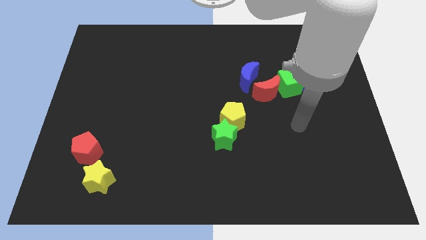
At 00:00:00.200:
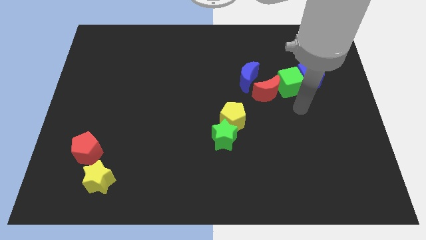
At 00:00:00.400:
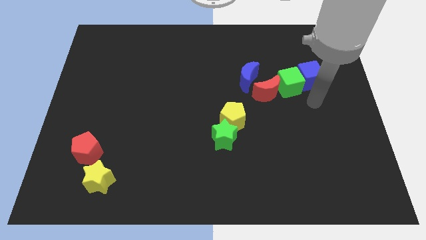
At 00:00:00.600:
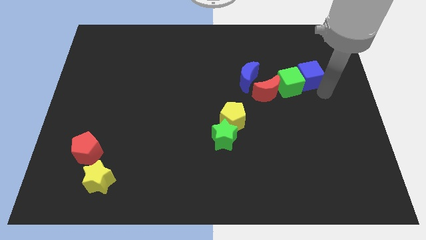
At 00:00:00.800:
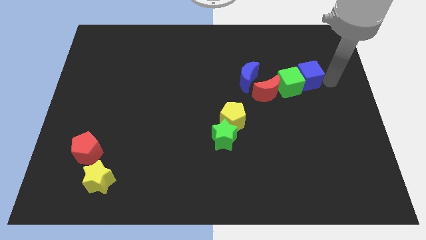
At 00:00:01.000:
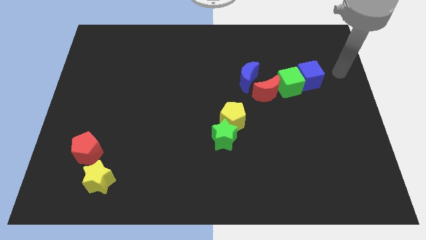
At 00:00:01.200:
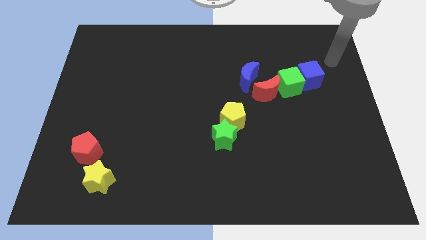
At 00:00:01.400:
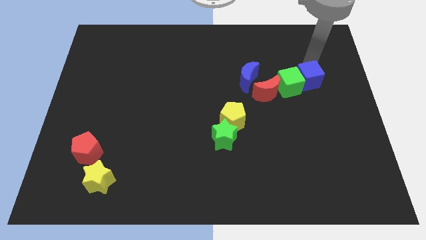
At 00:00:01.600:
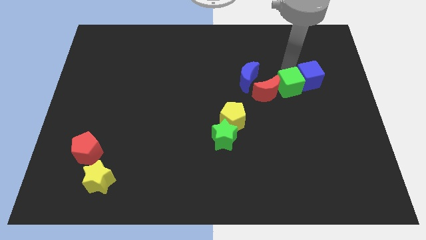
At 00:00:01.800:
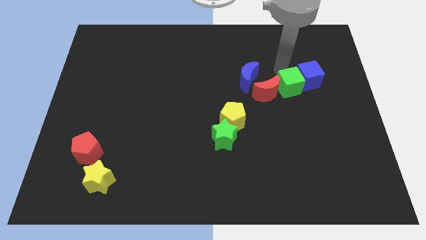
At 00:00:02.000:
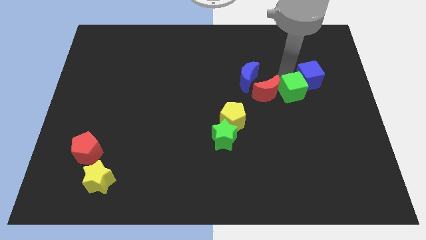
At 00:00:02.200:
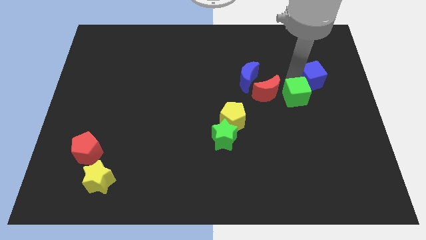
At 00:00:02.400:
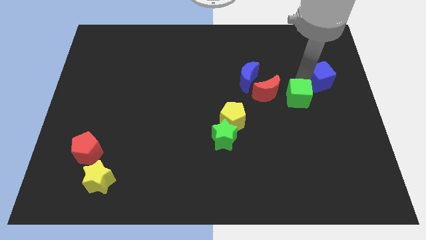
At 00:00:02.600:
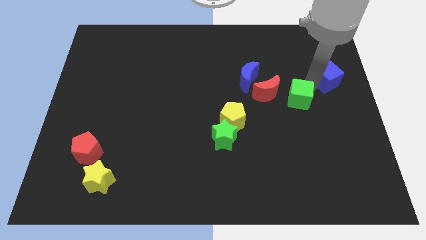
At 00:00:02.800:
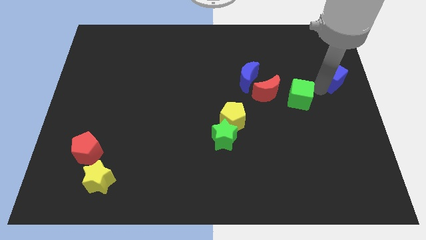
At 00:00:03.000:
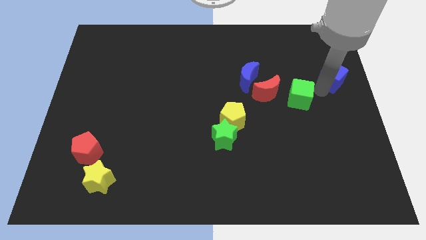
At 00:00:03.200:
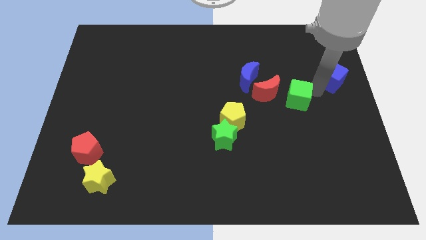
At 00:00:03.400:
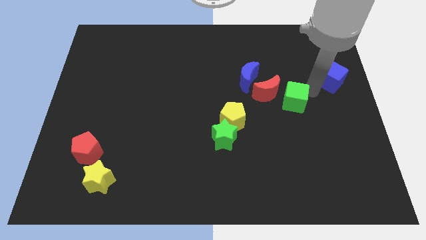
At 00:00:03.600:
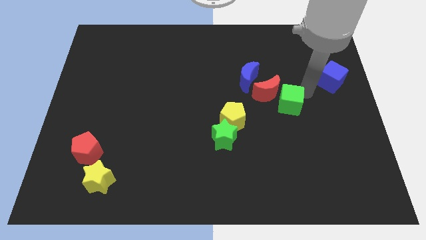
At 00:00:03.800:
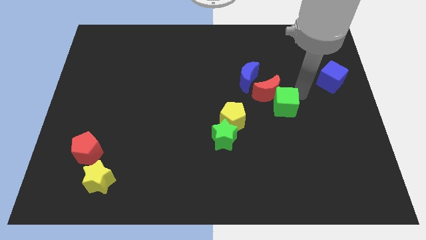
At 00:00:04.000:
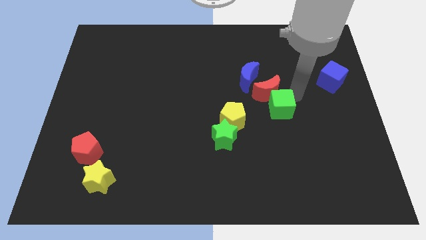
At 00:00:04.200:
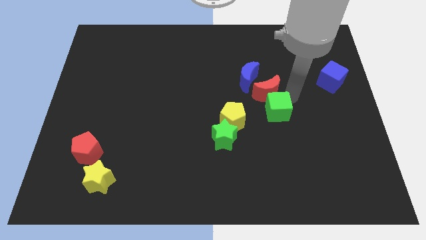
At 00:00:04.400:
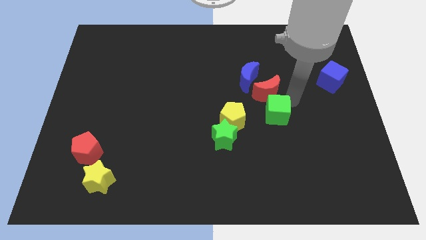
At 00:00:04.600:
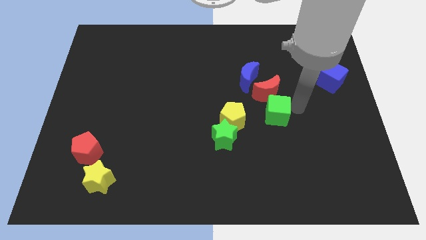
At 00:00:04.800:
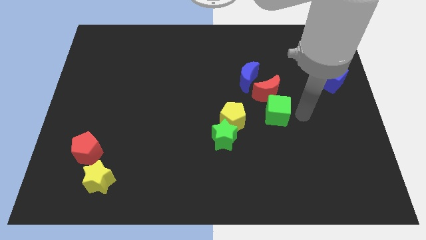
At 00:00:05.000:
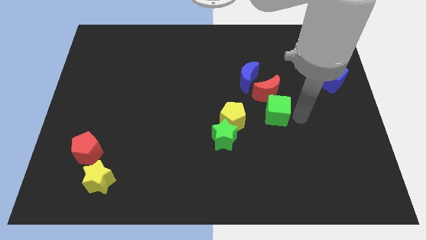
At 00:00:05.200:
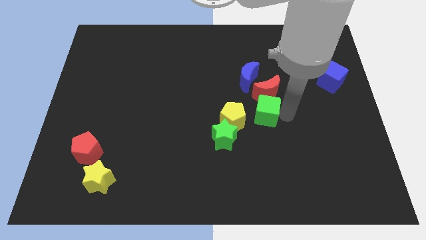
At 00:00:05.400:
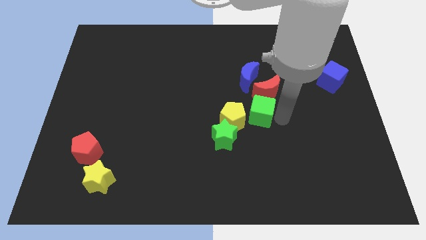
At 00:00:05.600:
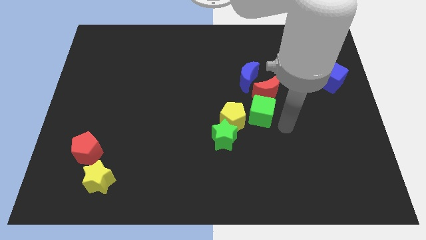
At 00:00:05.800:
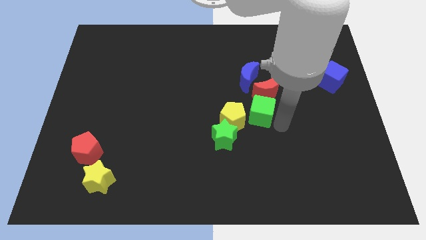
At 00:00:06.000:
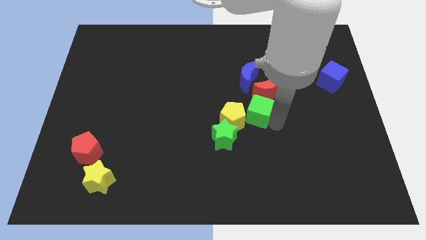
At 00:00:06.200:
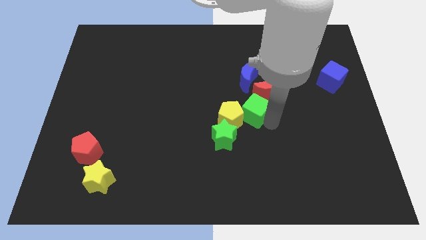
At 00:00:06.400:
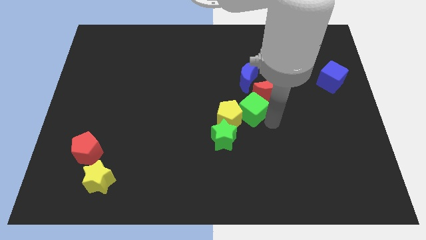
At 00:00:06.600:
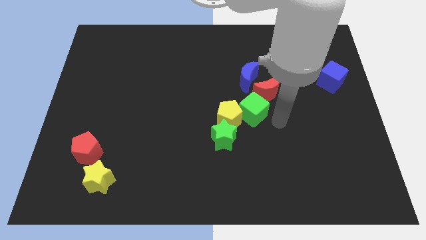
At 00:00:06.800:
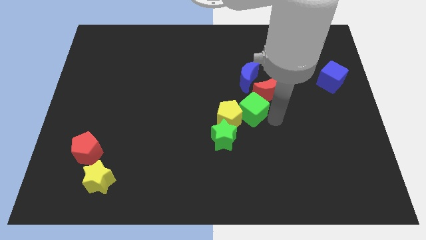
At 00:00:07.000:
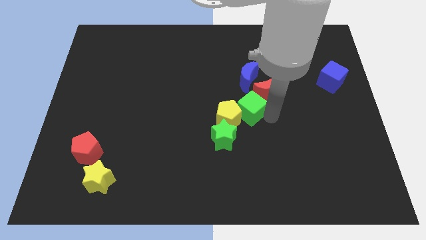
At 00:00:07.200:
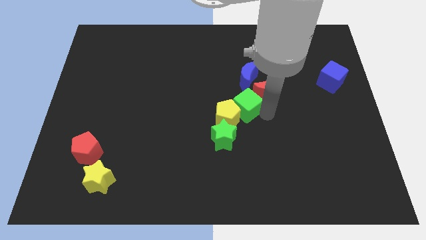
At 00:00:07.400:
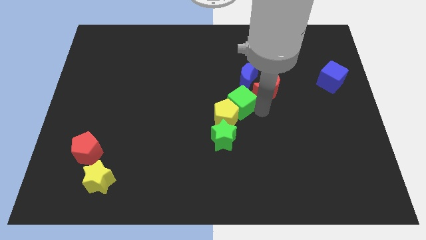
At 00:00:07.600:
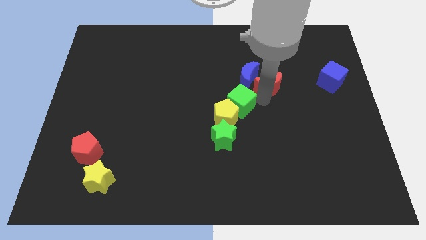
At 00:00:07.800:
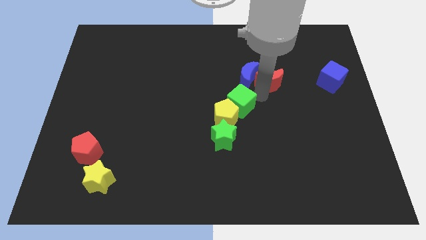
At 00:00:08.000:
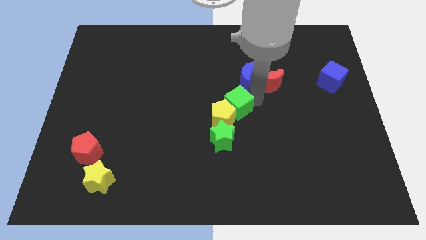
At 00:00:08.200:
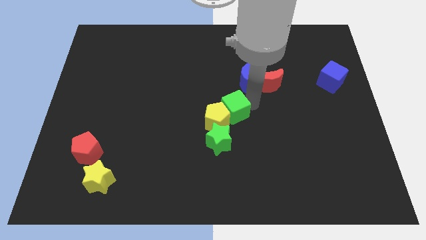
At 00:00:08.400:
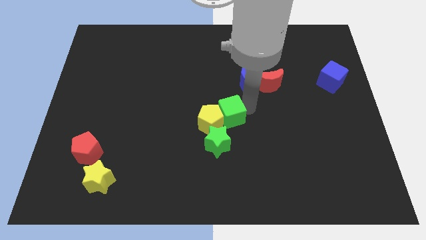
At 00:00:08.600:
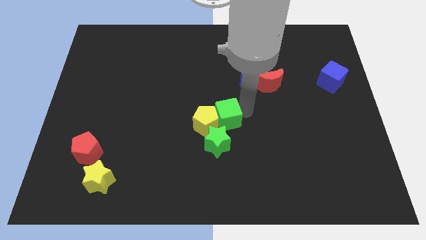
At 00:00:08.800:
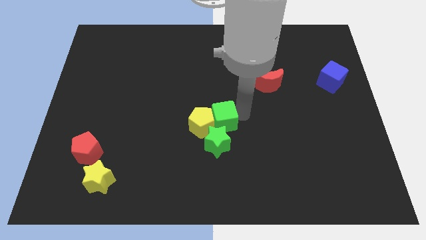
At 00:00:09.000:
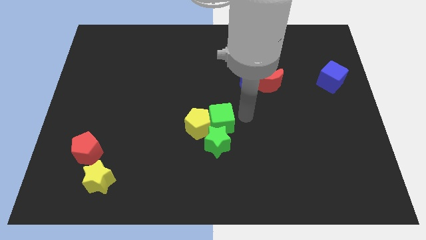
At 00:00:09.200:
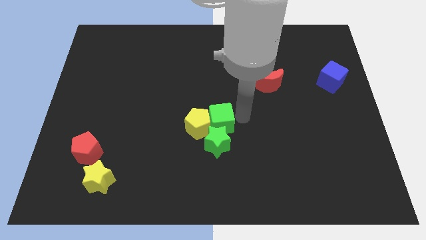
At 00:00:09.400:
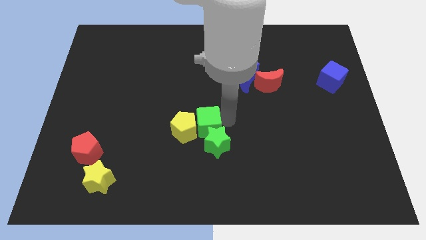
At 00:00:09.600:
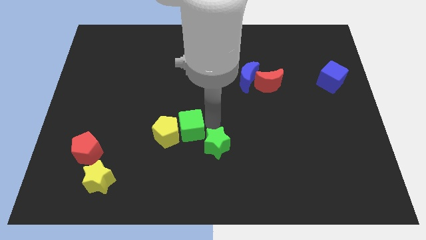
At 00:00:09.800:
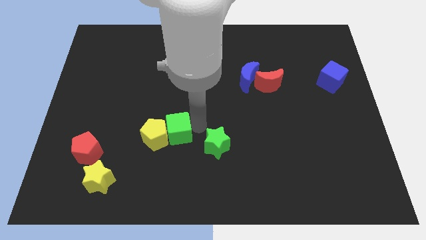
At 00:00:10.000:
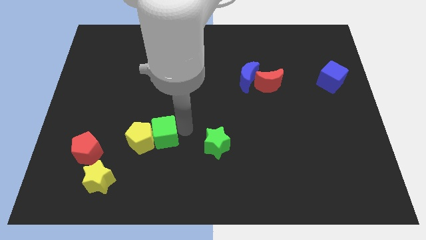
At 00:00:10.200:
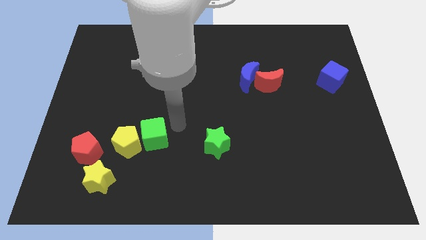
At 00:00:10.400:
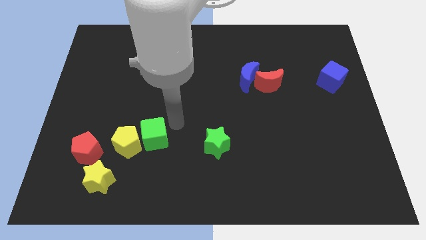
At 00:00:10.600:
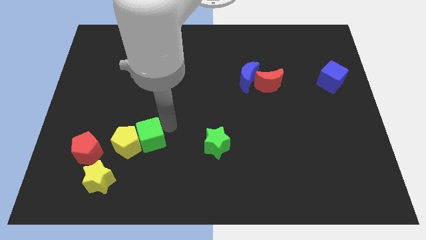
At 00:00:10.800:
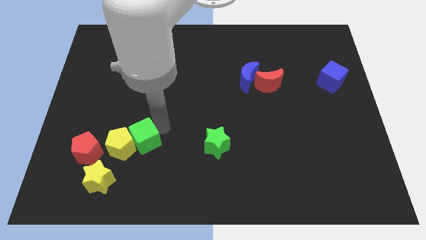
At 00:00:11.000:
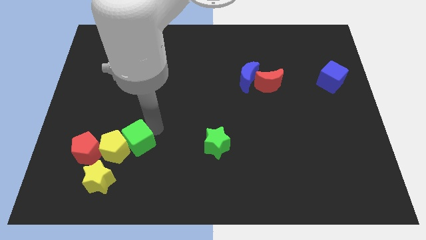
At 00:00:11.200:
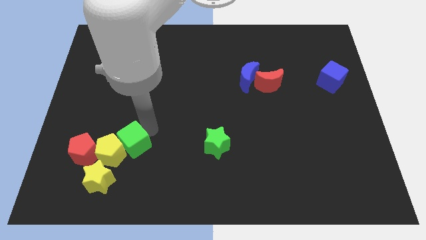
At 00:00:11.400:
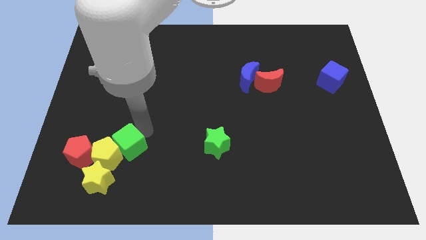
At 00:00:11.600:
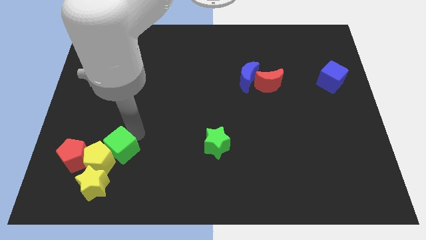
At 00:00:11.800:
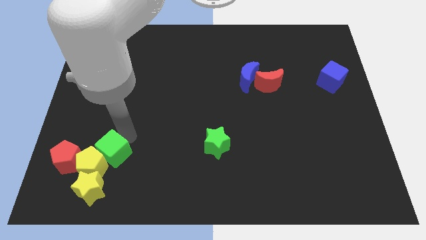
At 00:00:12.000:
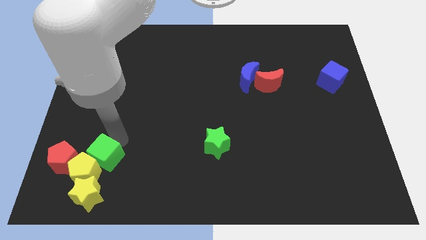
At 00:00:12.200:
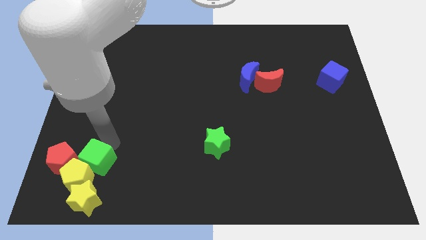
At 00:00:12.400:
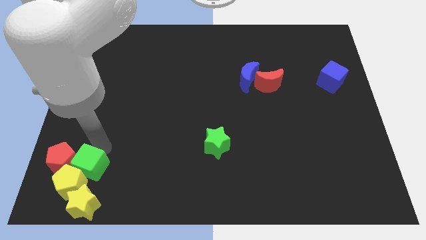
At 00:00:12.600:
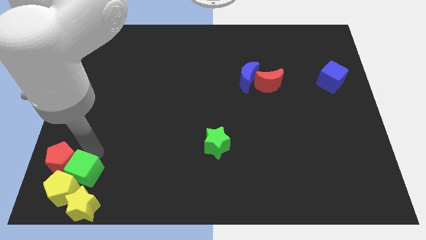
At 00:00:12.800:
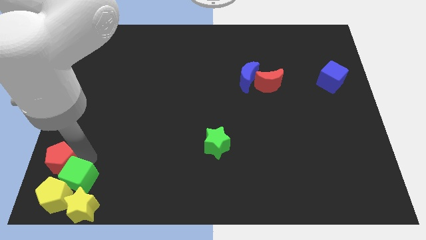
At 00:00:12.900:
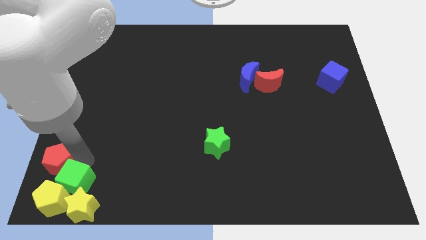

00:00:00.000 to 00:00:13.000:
push the green cube towards the yellow star

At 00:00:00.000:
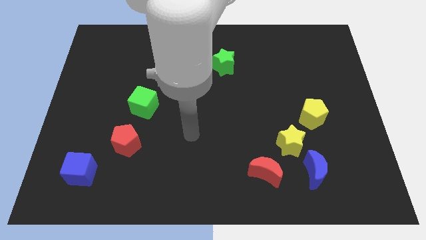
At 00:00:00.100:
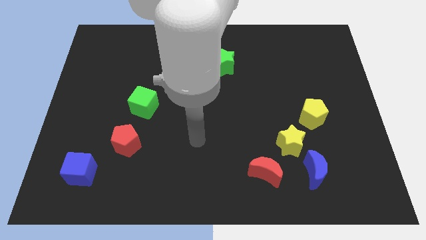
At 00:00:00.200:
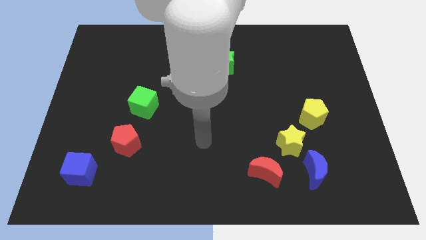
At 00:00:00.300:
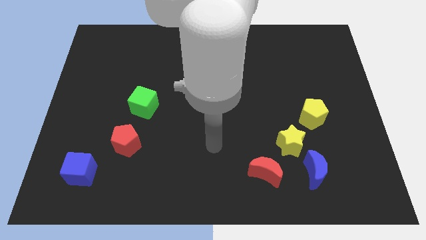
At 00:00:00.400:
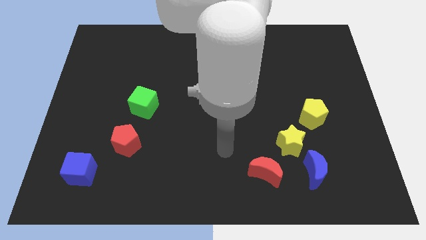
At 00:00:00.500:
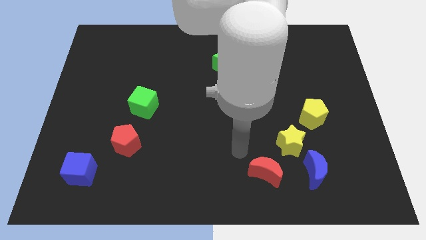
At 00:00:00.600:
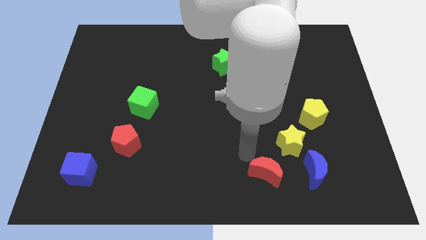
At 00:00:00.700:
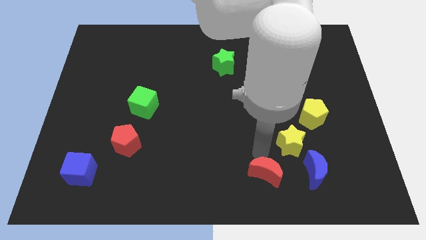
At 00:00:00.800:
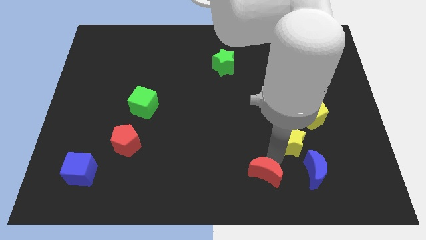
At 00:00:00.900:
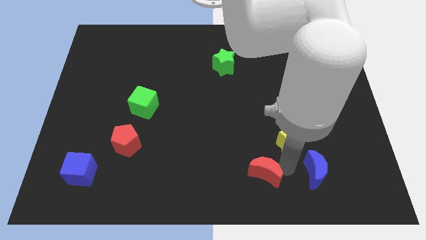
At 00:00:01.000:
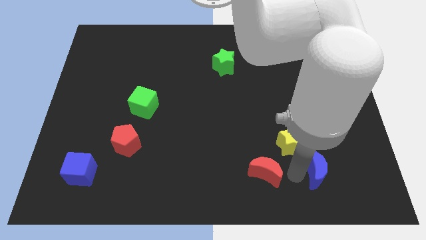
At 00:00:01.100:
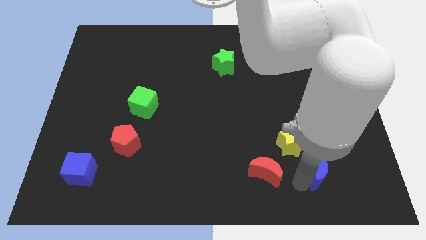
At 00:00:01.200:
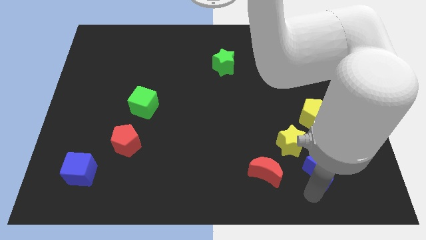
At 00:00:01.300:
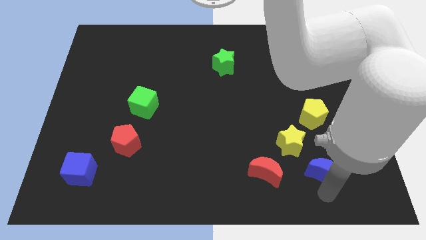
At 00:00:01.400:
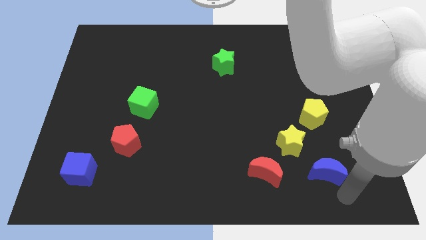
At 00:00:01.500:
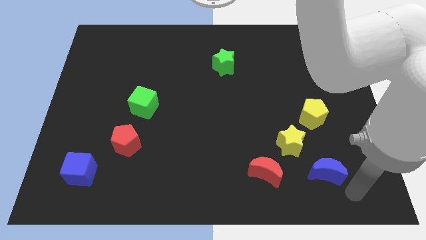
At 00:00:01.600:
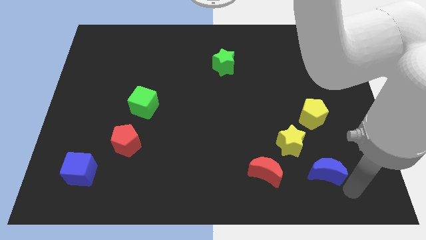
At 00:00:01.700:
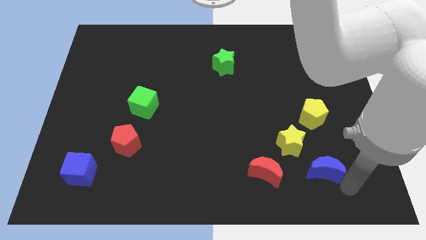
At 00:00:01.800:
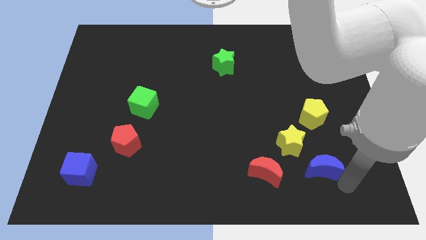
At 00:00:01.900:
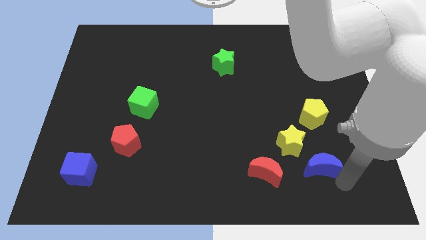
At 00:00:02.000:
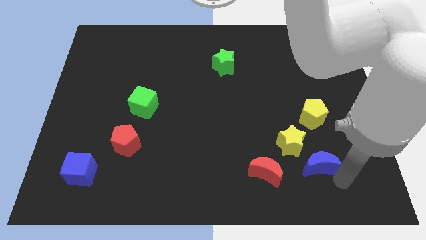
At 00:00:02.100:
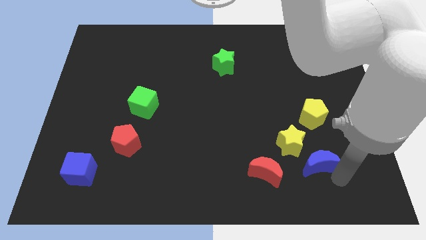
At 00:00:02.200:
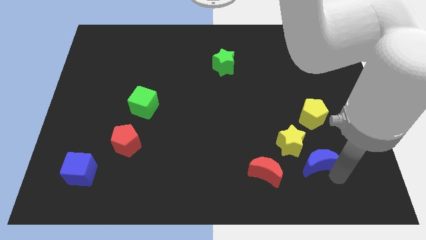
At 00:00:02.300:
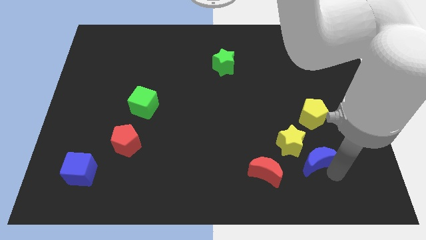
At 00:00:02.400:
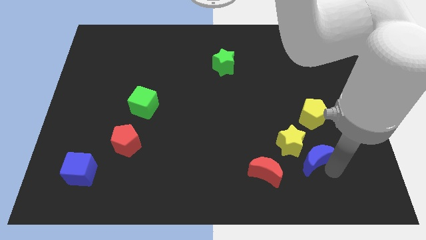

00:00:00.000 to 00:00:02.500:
put the blue moon to the yellow star
